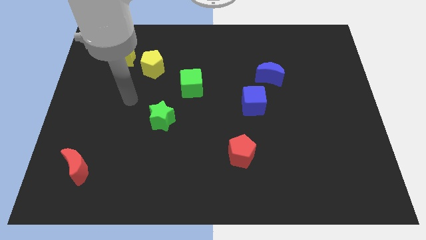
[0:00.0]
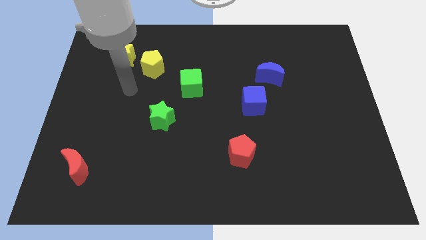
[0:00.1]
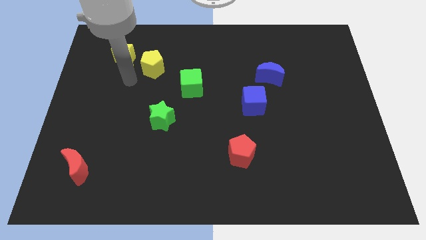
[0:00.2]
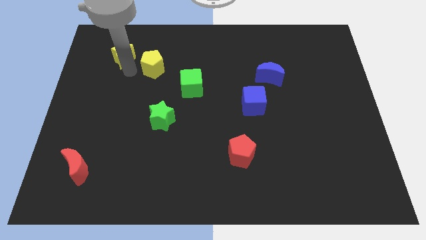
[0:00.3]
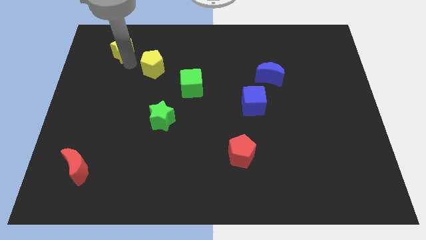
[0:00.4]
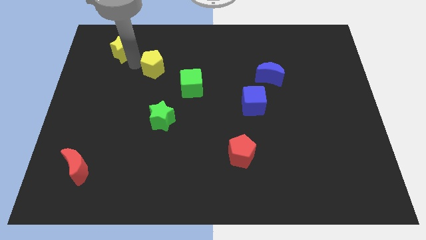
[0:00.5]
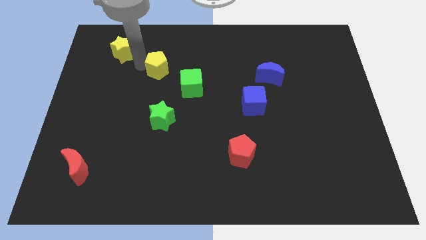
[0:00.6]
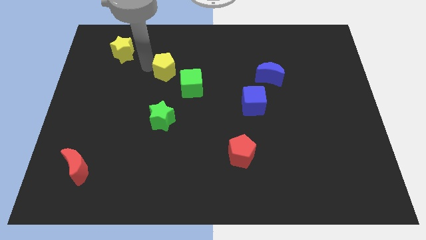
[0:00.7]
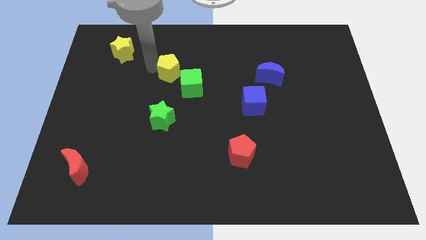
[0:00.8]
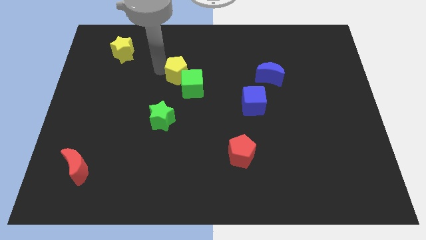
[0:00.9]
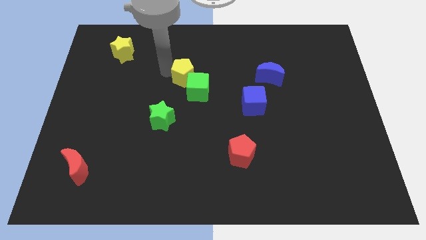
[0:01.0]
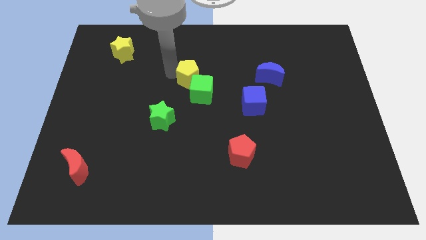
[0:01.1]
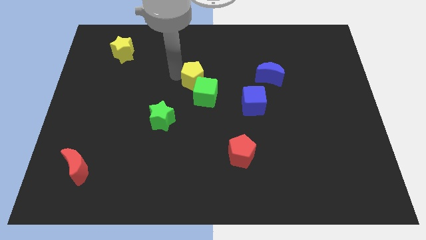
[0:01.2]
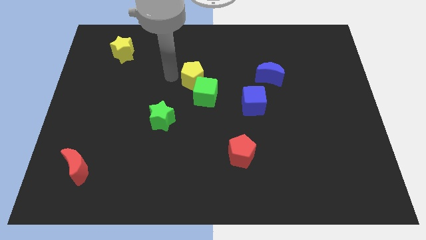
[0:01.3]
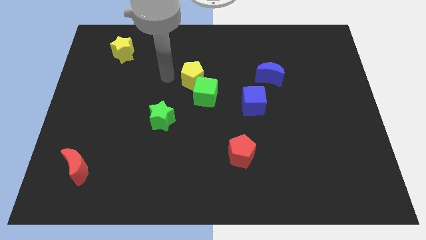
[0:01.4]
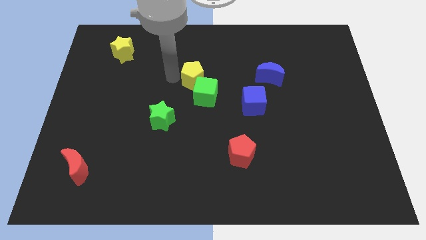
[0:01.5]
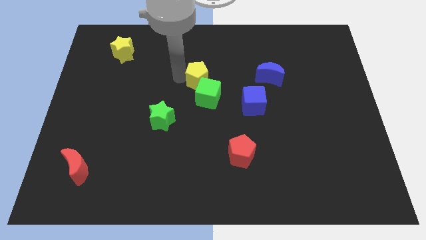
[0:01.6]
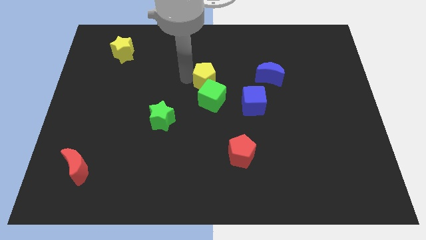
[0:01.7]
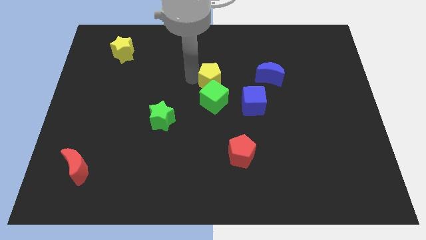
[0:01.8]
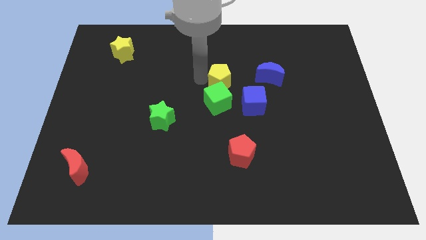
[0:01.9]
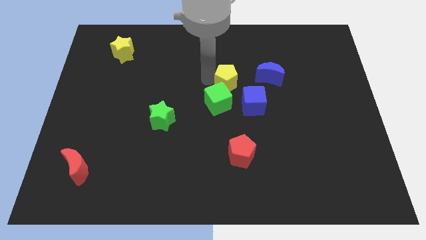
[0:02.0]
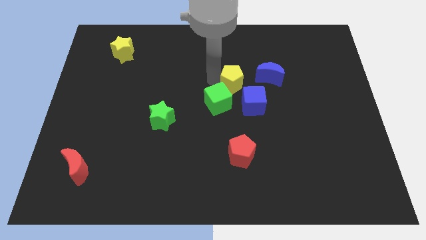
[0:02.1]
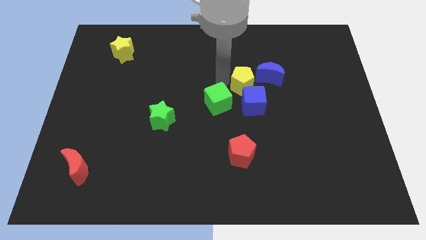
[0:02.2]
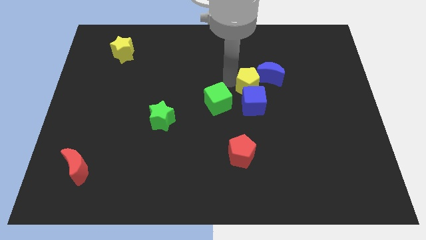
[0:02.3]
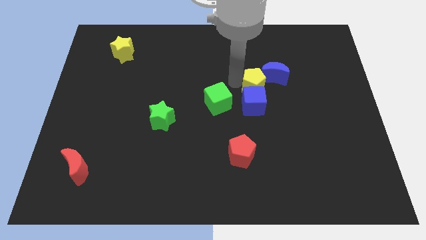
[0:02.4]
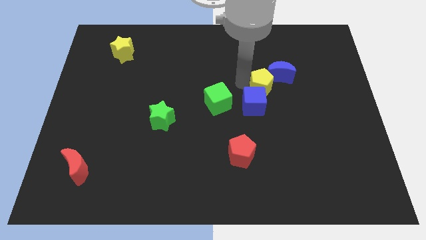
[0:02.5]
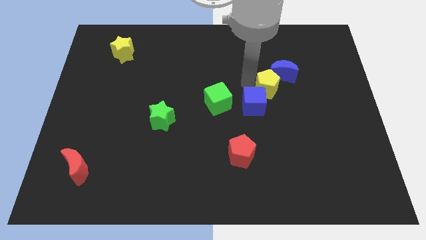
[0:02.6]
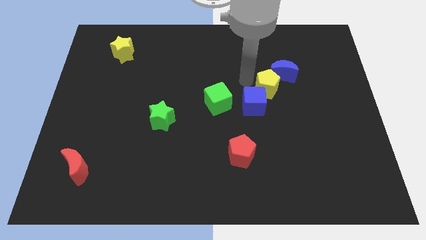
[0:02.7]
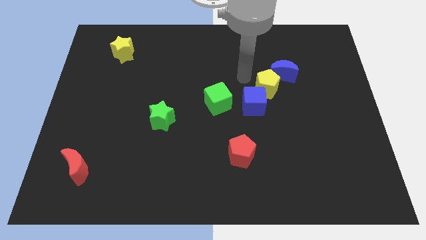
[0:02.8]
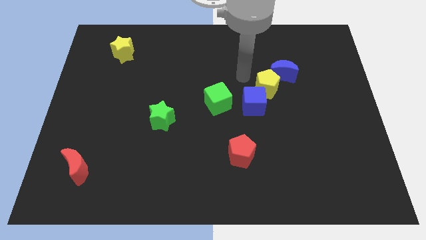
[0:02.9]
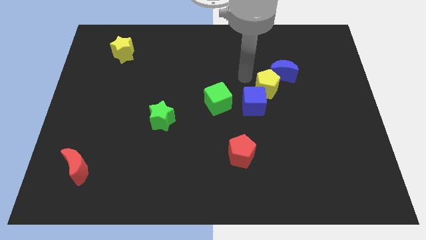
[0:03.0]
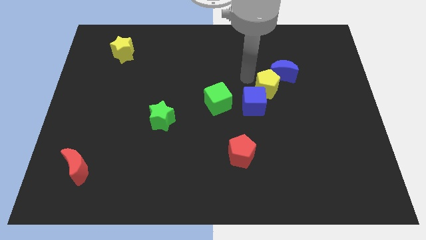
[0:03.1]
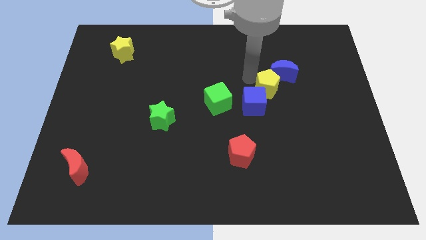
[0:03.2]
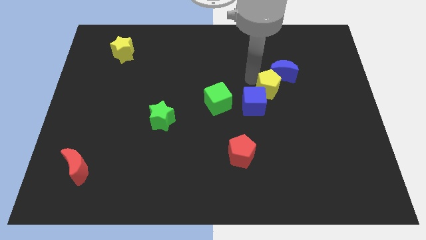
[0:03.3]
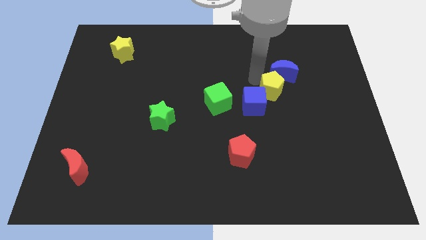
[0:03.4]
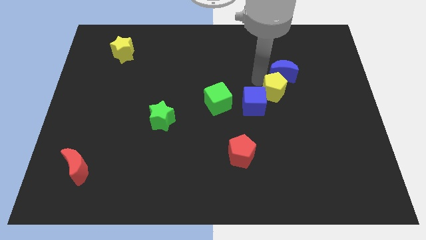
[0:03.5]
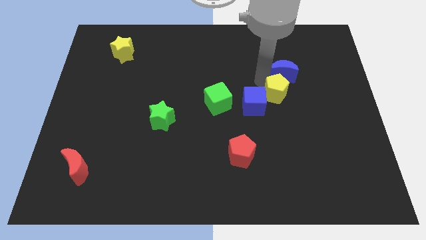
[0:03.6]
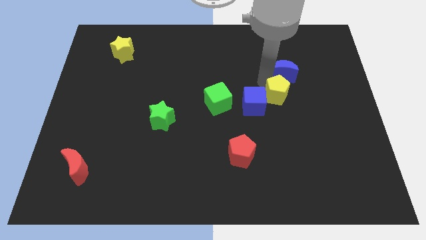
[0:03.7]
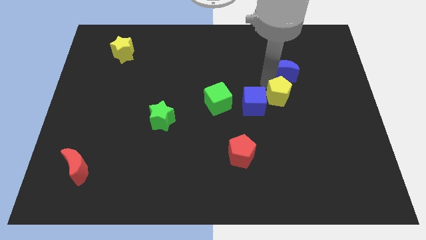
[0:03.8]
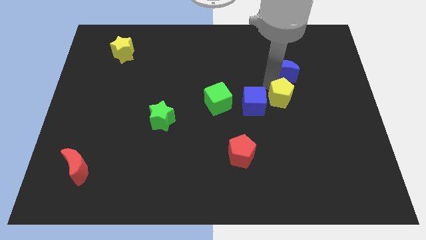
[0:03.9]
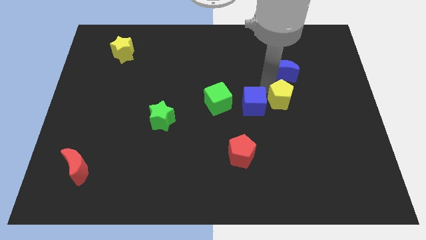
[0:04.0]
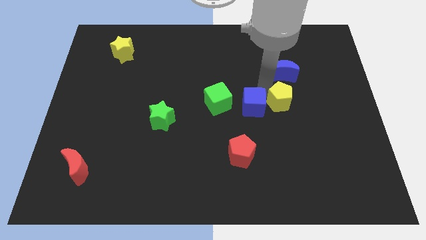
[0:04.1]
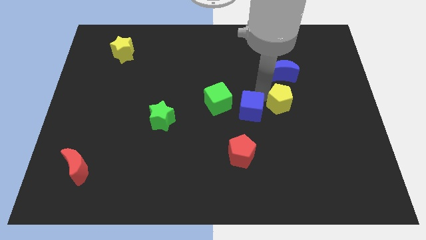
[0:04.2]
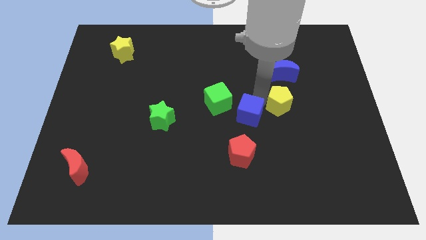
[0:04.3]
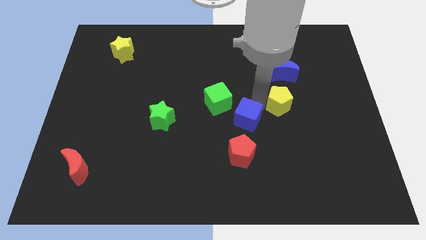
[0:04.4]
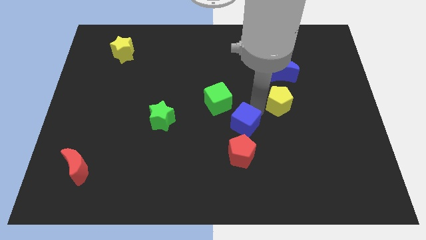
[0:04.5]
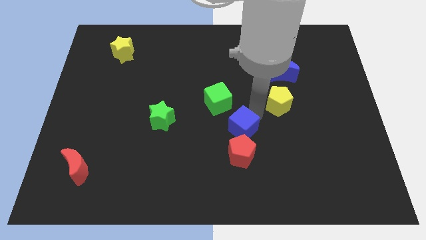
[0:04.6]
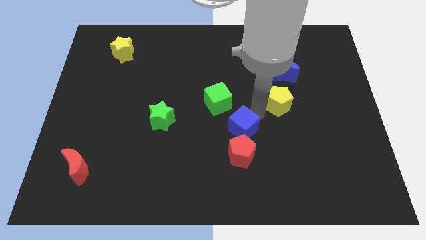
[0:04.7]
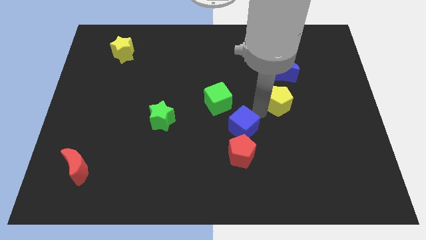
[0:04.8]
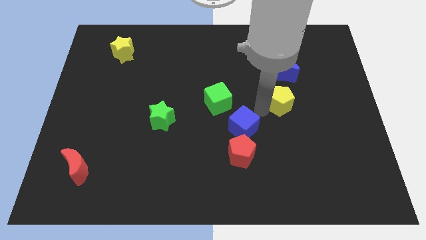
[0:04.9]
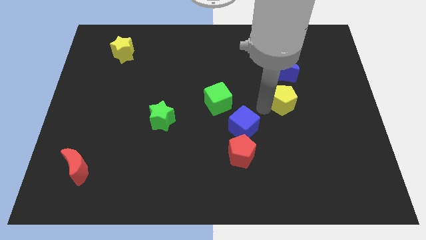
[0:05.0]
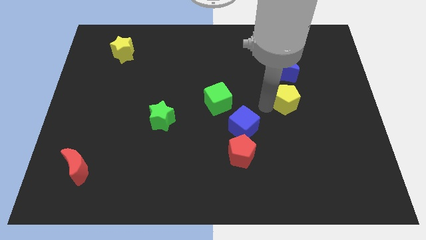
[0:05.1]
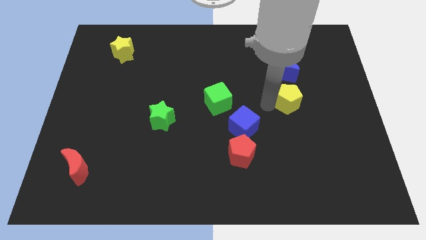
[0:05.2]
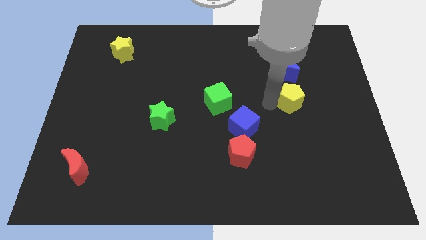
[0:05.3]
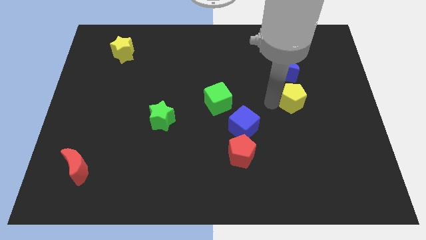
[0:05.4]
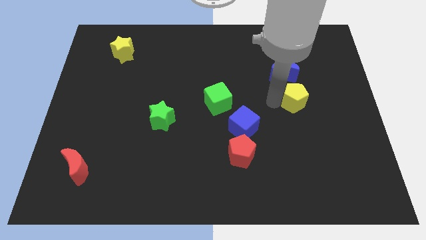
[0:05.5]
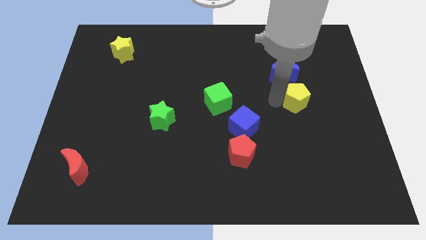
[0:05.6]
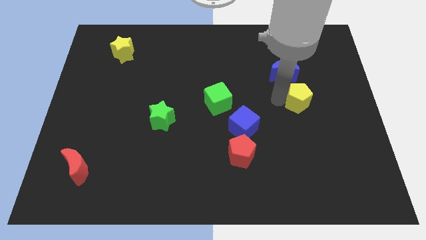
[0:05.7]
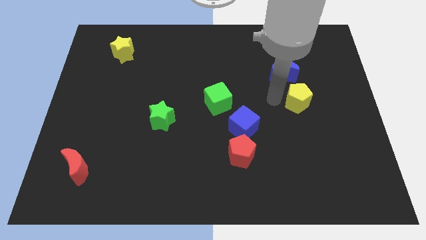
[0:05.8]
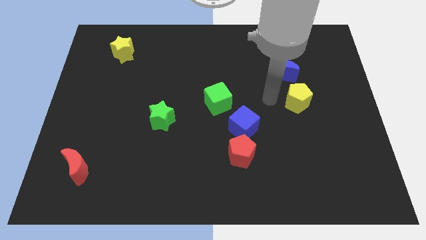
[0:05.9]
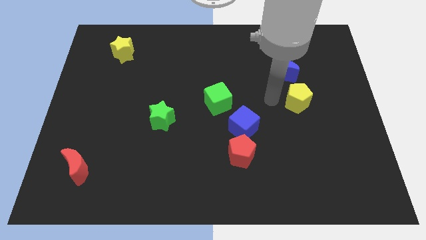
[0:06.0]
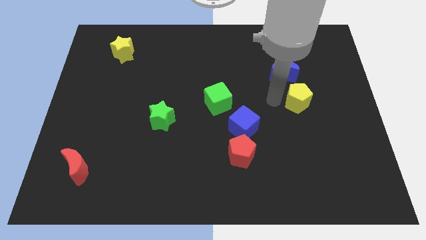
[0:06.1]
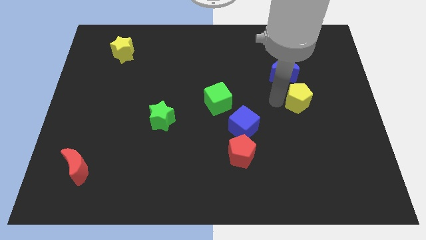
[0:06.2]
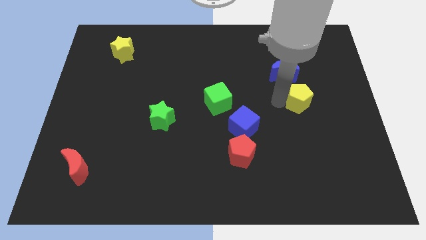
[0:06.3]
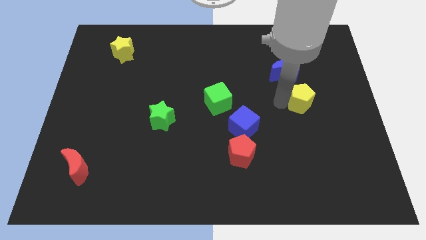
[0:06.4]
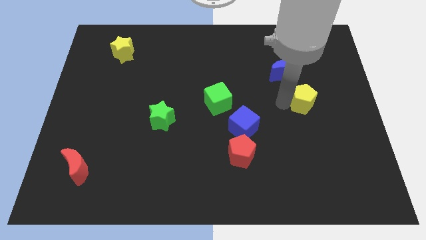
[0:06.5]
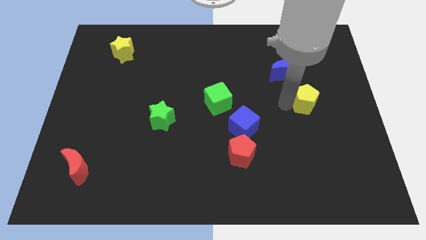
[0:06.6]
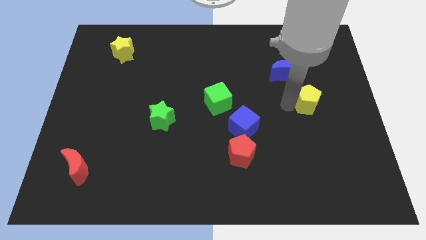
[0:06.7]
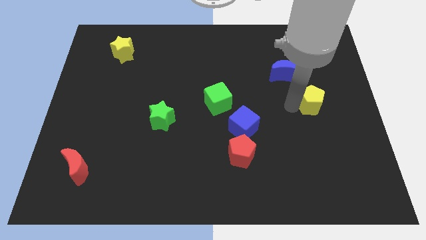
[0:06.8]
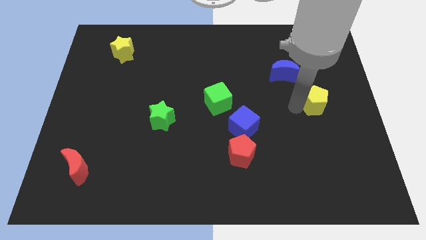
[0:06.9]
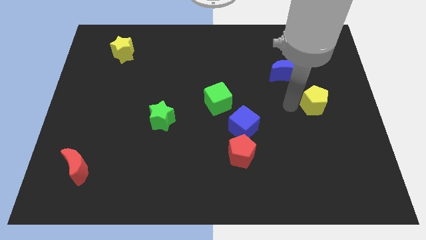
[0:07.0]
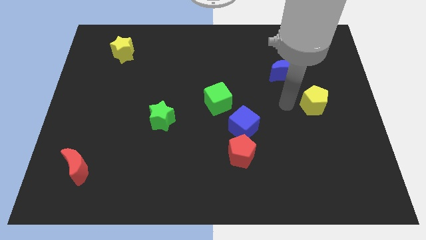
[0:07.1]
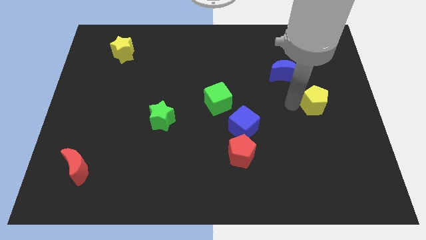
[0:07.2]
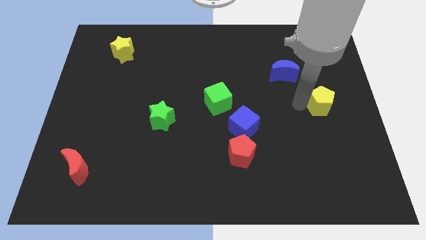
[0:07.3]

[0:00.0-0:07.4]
slide the yellow pentagon to the center right
